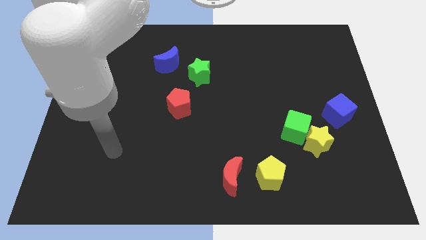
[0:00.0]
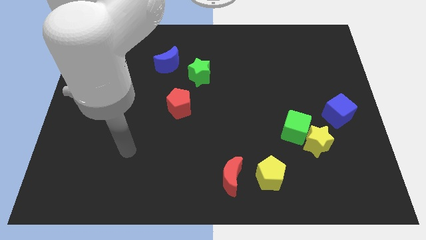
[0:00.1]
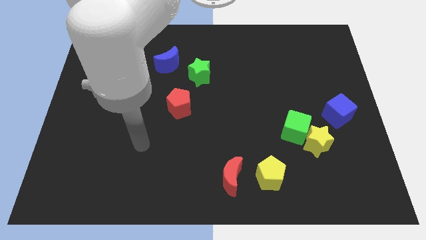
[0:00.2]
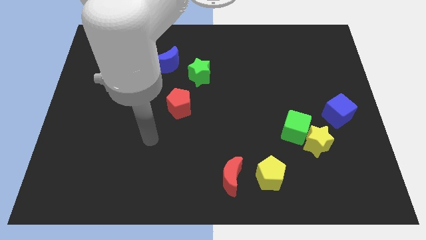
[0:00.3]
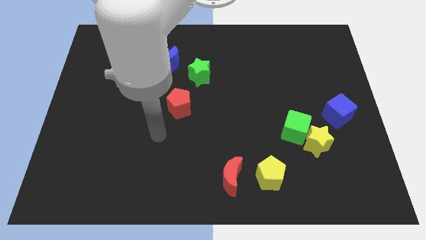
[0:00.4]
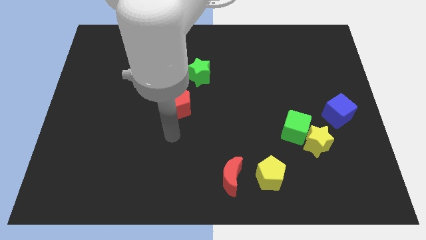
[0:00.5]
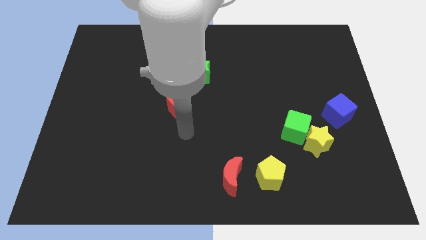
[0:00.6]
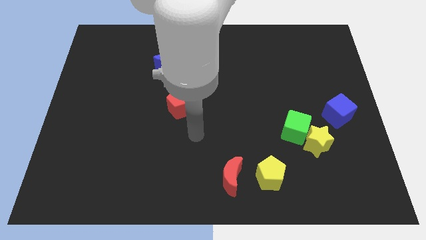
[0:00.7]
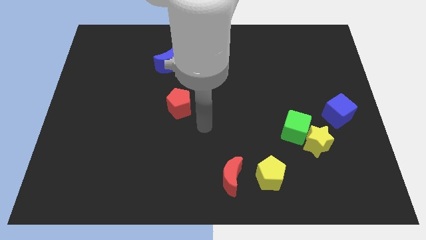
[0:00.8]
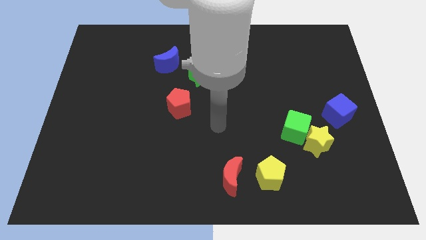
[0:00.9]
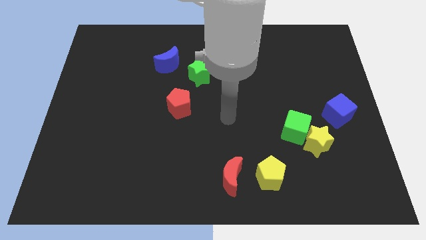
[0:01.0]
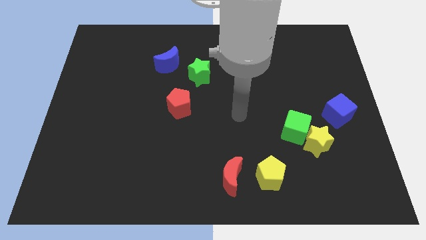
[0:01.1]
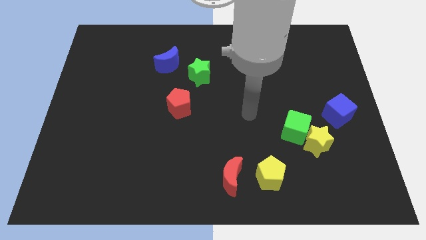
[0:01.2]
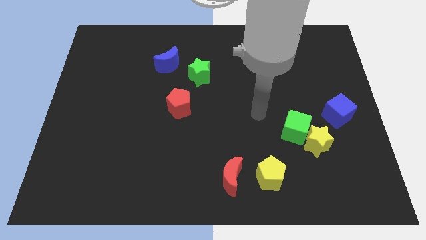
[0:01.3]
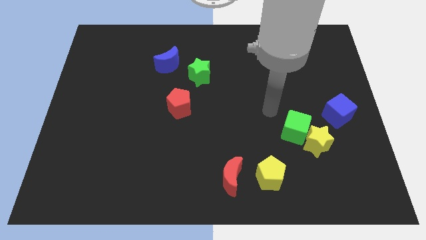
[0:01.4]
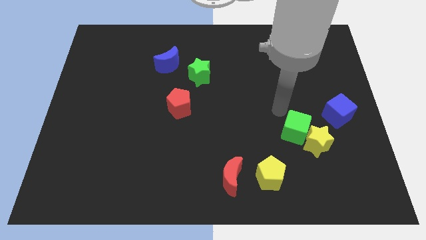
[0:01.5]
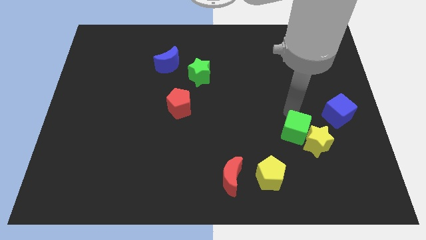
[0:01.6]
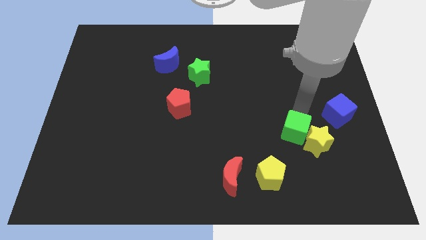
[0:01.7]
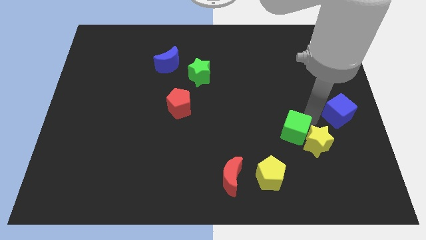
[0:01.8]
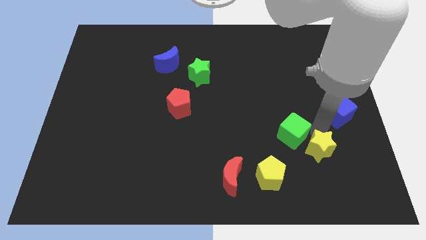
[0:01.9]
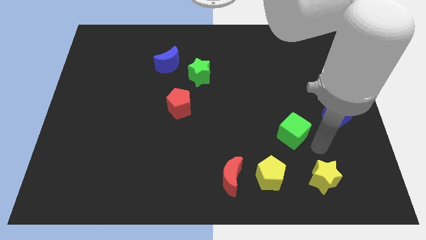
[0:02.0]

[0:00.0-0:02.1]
move the green cube away from the yellow star

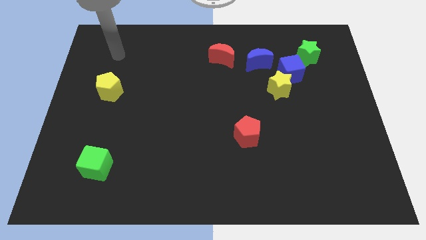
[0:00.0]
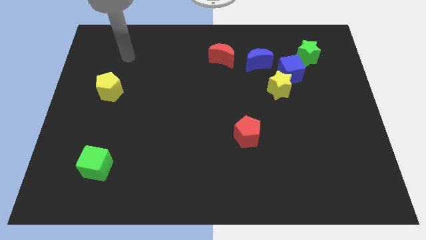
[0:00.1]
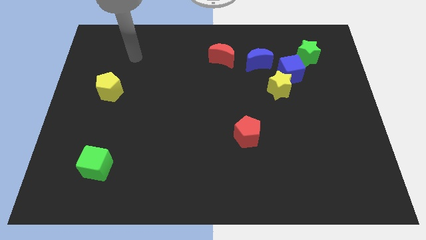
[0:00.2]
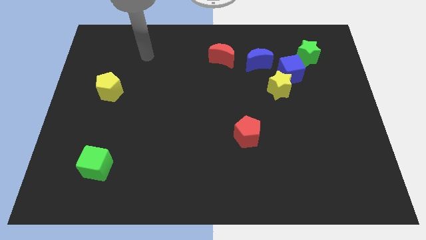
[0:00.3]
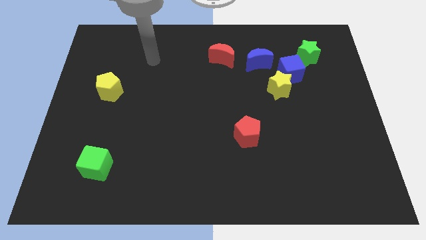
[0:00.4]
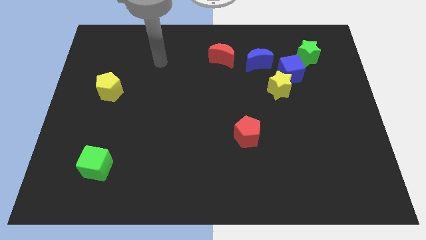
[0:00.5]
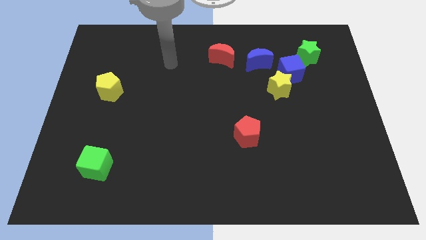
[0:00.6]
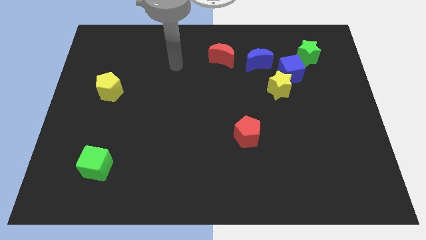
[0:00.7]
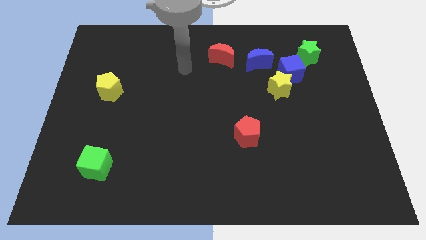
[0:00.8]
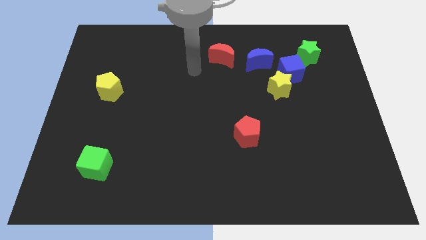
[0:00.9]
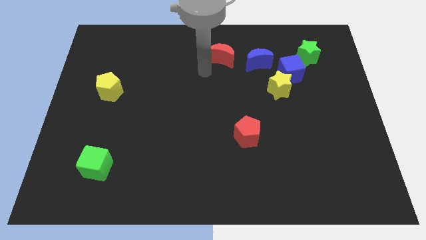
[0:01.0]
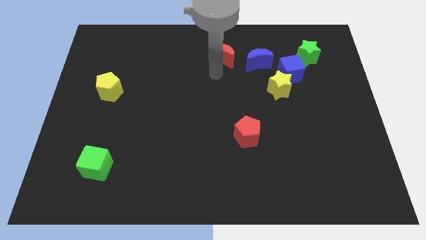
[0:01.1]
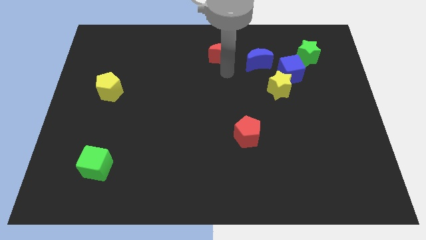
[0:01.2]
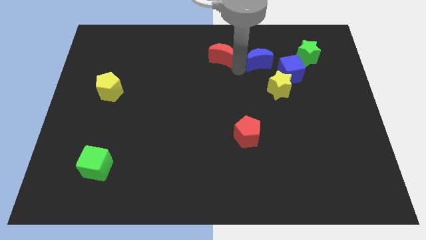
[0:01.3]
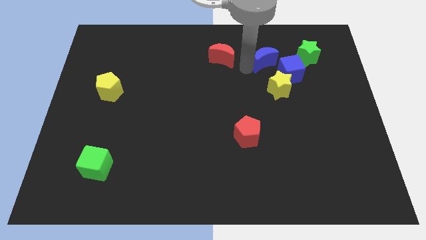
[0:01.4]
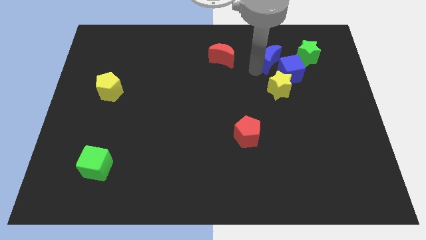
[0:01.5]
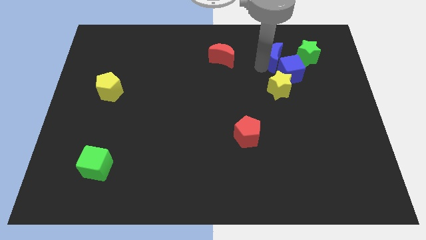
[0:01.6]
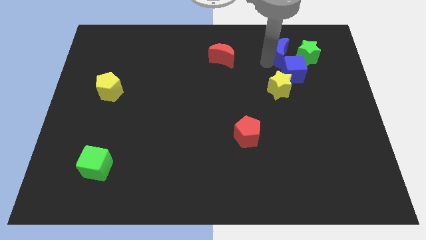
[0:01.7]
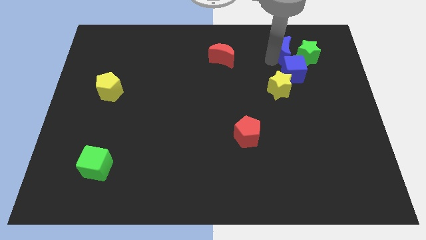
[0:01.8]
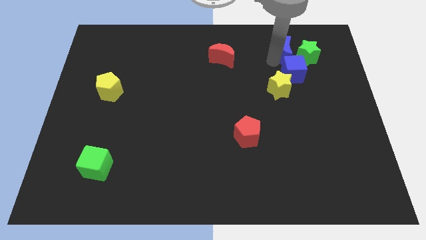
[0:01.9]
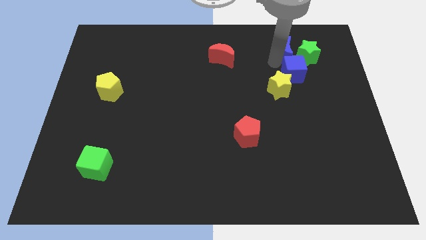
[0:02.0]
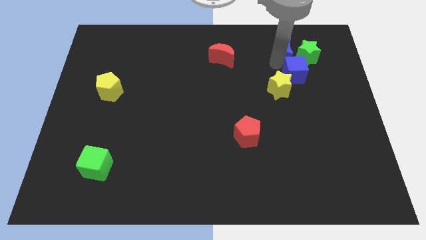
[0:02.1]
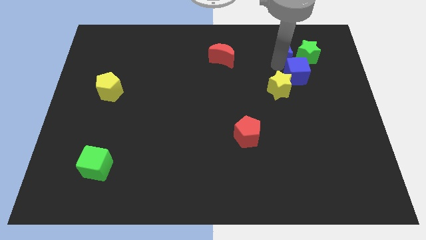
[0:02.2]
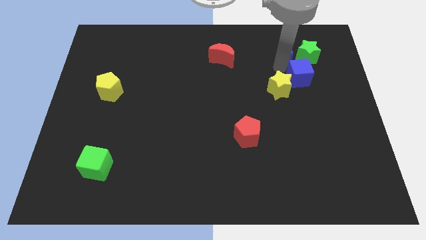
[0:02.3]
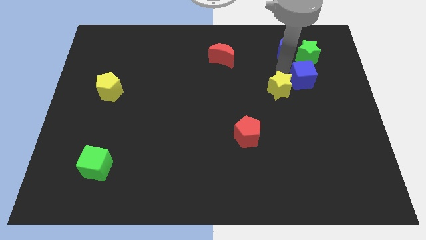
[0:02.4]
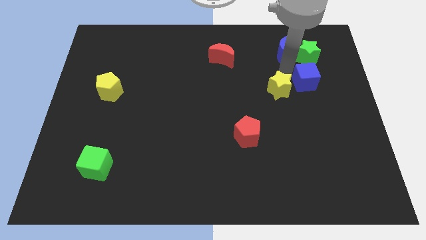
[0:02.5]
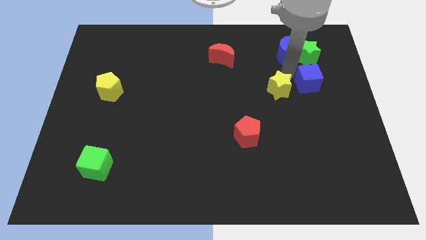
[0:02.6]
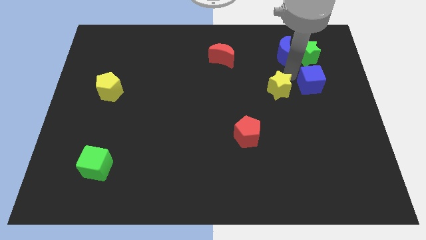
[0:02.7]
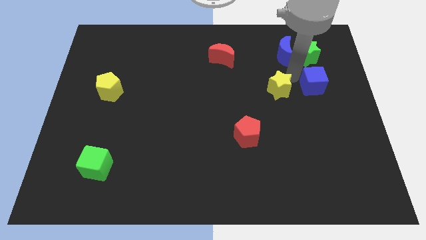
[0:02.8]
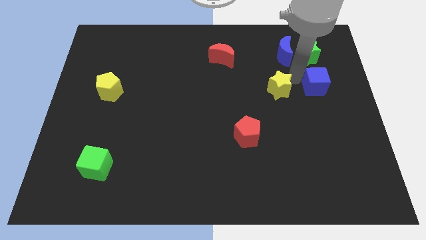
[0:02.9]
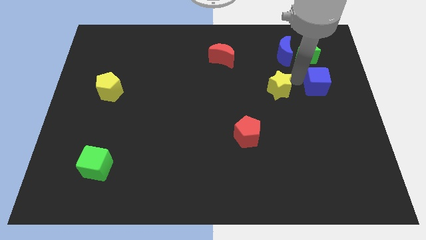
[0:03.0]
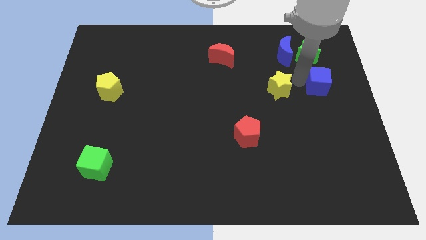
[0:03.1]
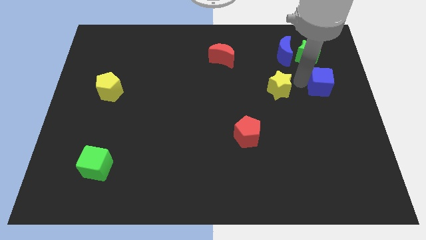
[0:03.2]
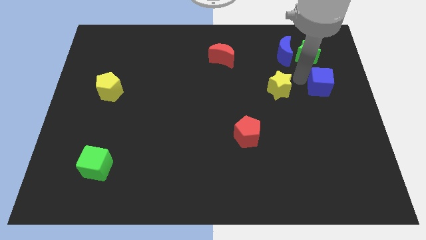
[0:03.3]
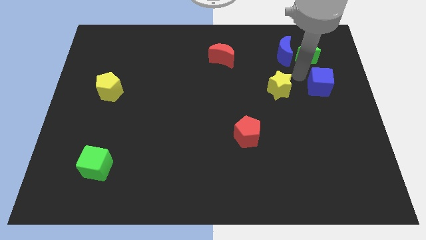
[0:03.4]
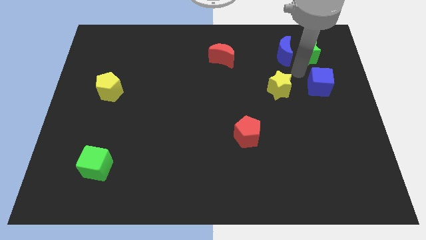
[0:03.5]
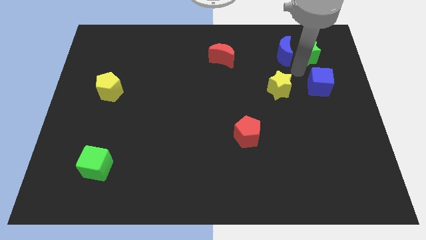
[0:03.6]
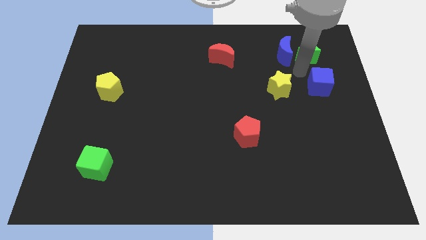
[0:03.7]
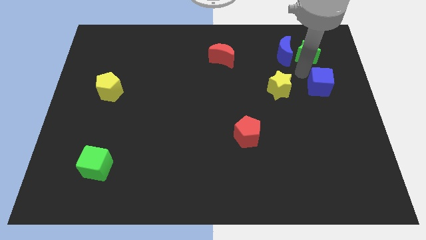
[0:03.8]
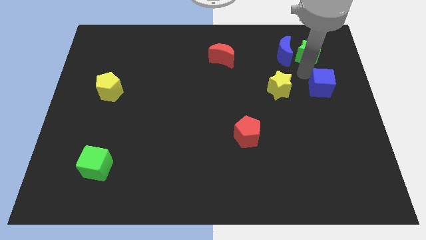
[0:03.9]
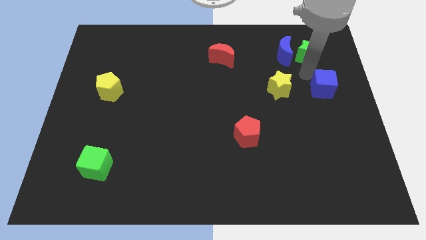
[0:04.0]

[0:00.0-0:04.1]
separate the blue cube from the clump

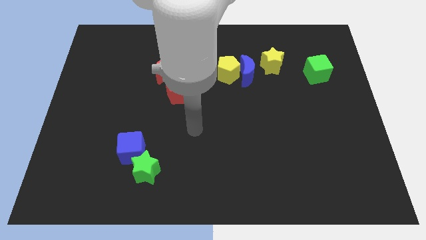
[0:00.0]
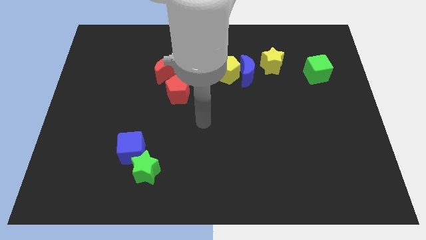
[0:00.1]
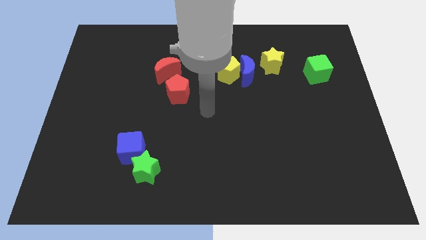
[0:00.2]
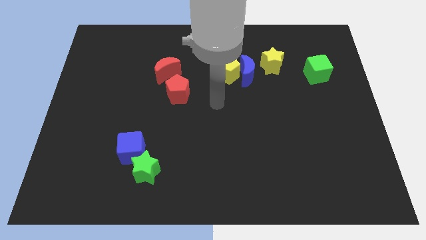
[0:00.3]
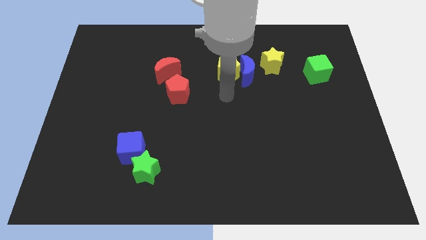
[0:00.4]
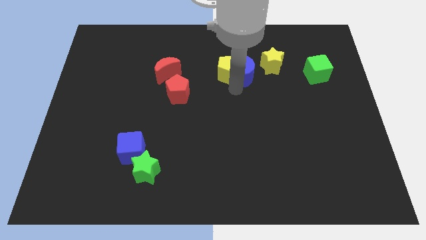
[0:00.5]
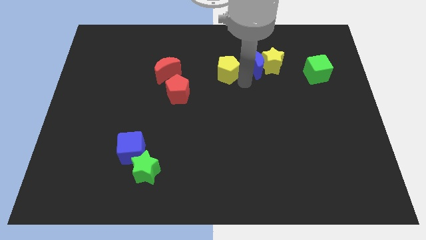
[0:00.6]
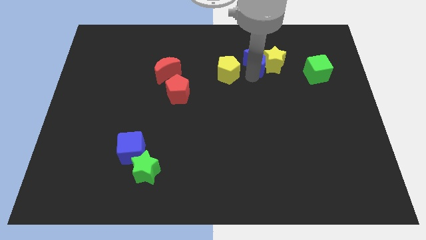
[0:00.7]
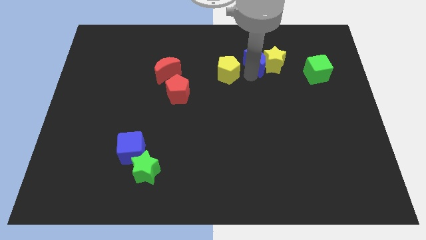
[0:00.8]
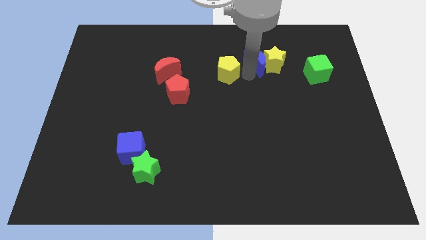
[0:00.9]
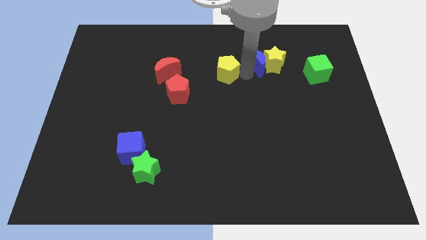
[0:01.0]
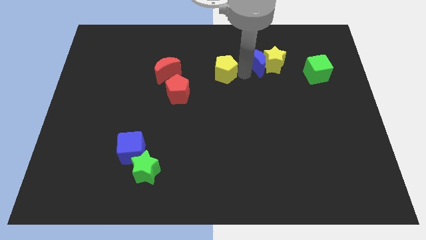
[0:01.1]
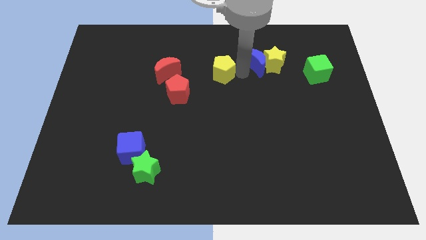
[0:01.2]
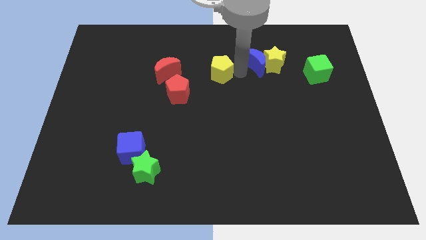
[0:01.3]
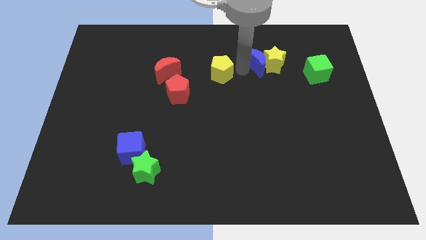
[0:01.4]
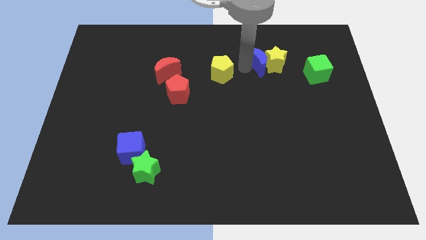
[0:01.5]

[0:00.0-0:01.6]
move the yellow pentagon away from the blue moon

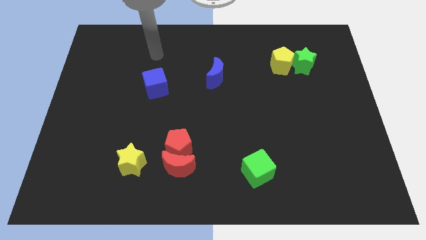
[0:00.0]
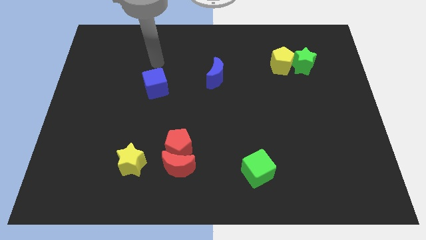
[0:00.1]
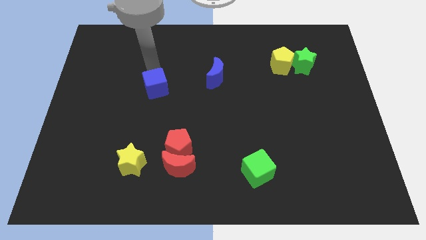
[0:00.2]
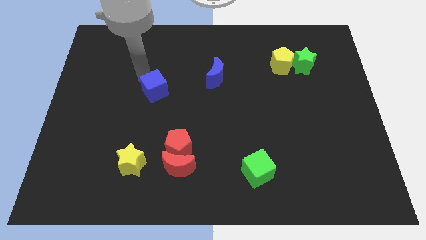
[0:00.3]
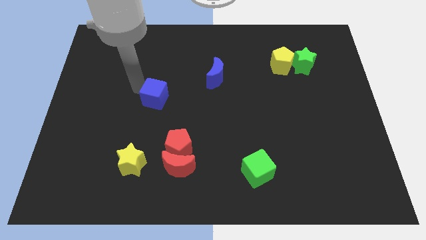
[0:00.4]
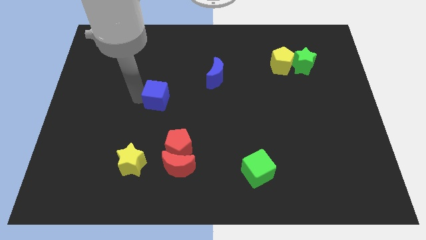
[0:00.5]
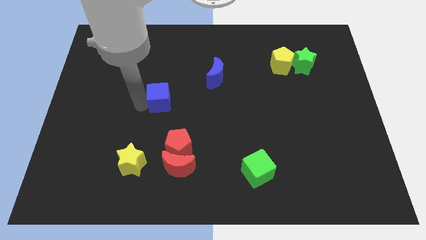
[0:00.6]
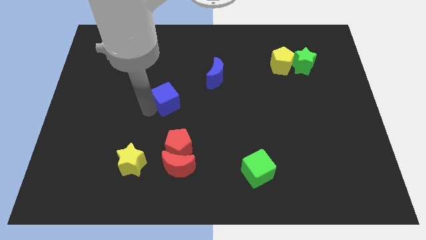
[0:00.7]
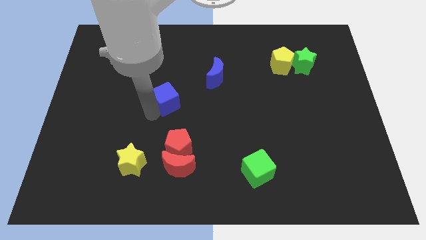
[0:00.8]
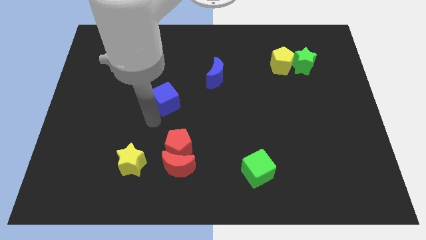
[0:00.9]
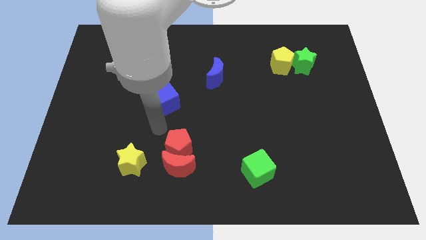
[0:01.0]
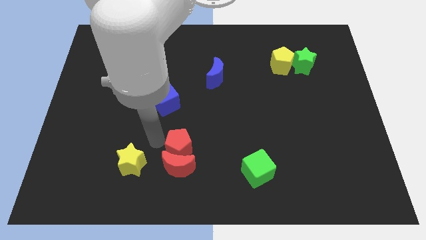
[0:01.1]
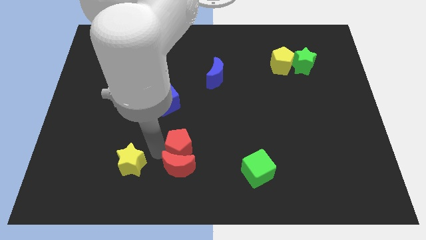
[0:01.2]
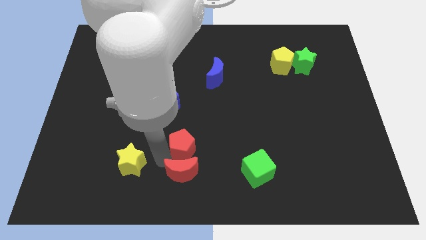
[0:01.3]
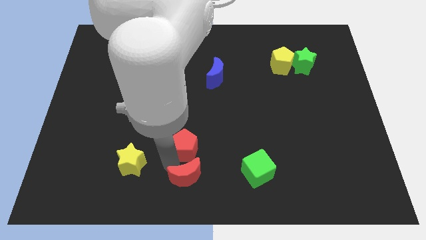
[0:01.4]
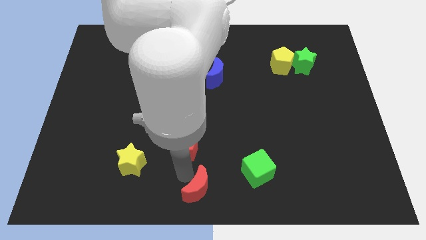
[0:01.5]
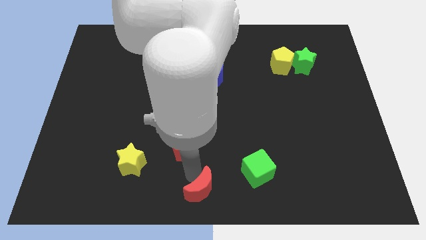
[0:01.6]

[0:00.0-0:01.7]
pull the red pentagon apart from the red moon
